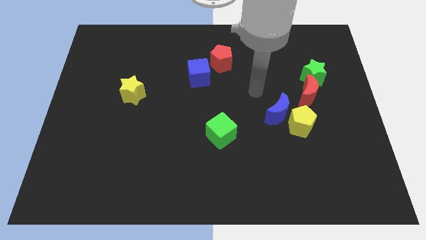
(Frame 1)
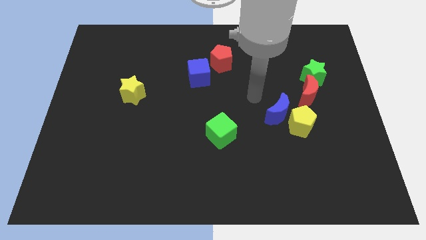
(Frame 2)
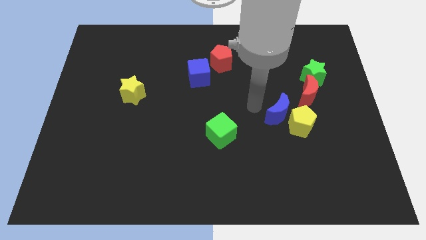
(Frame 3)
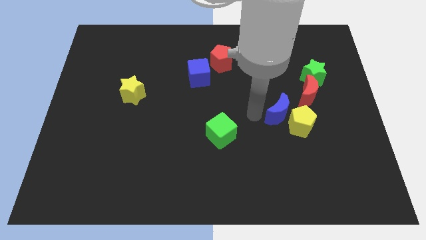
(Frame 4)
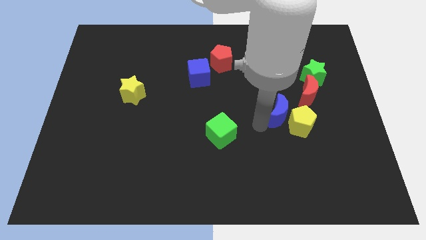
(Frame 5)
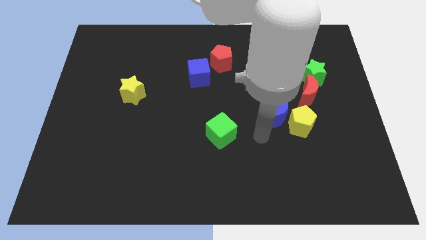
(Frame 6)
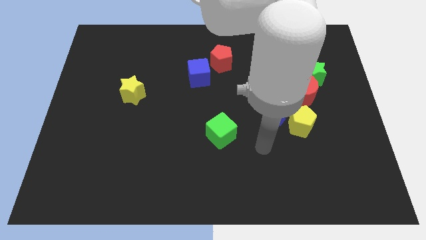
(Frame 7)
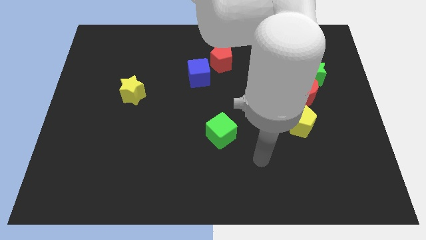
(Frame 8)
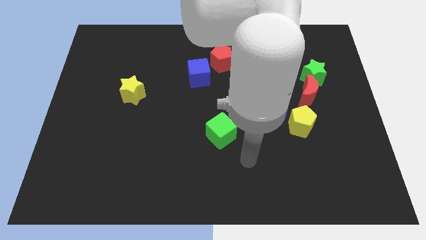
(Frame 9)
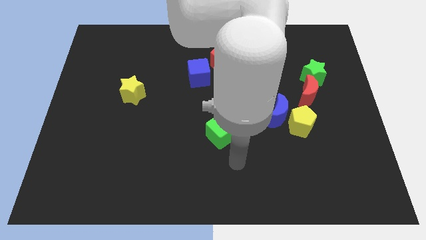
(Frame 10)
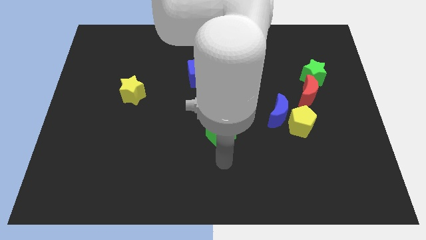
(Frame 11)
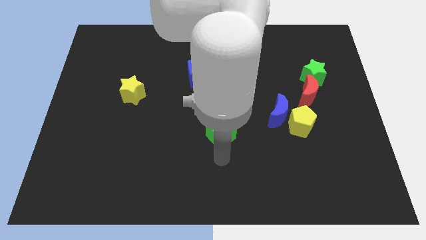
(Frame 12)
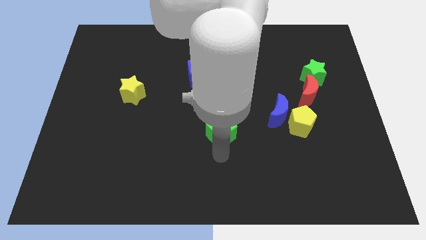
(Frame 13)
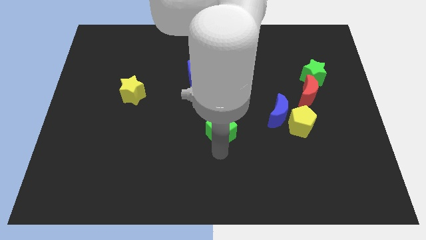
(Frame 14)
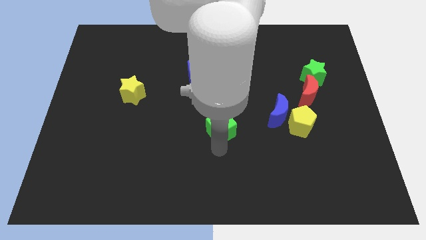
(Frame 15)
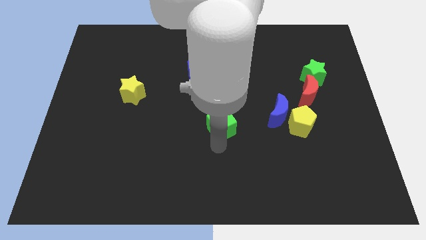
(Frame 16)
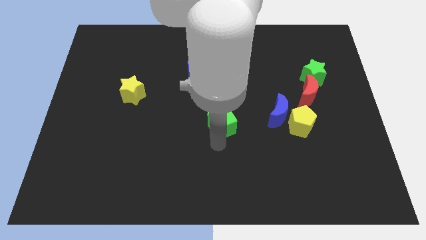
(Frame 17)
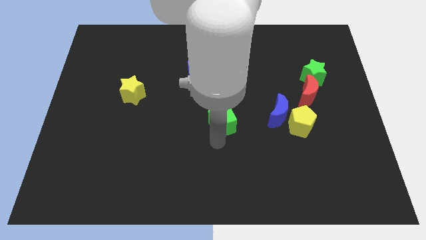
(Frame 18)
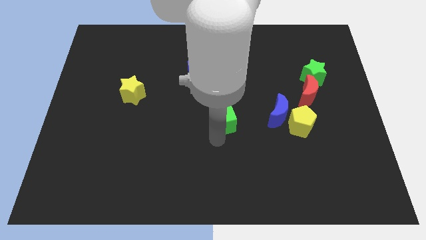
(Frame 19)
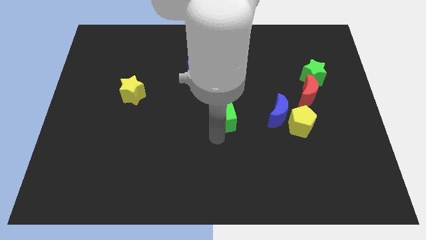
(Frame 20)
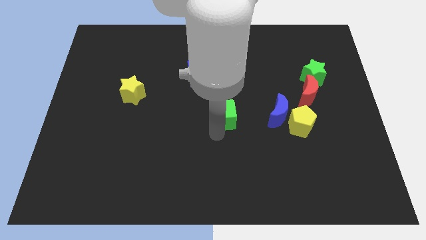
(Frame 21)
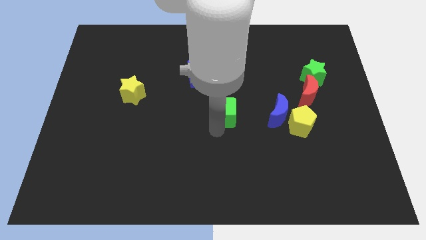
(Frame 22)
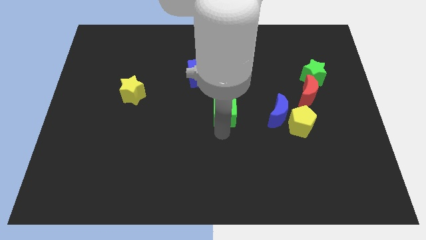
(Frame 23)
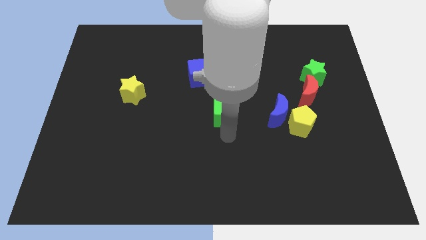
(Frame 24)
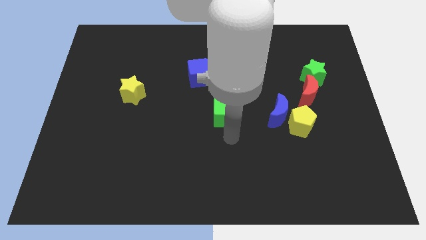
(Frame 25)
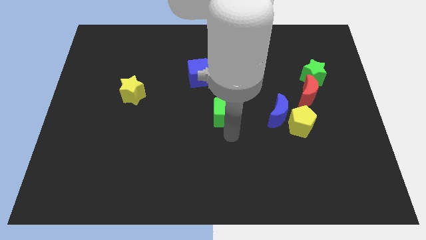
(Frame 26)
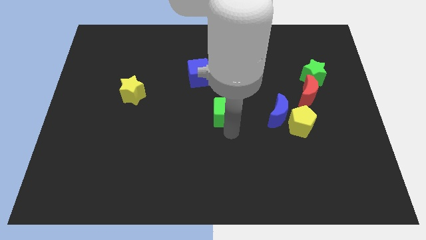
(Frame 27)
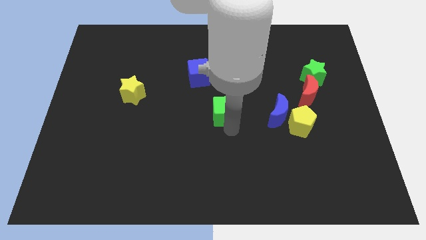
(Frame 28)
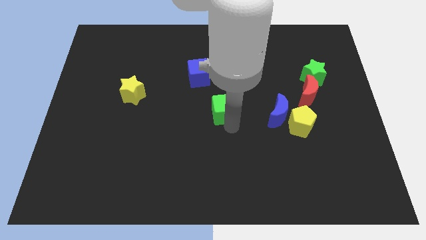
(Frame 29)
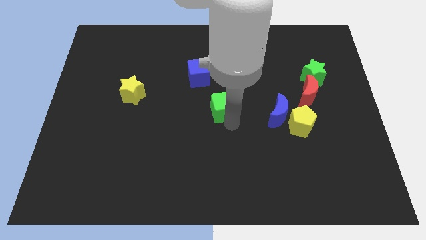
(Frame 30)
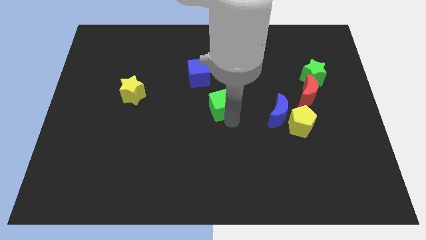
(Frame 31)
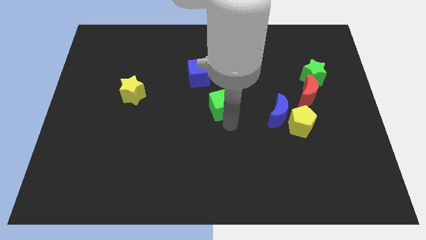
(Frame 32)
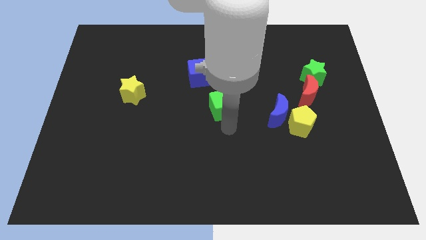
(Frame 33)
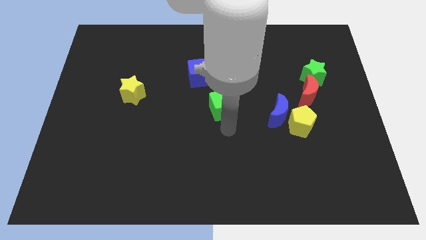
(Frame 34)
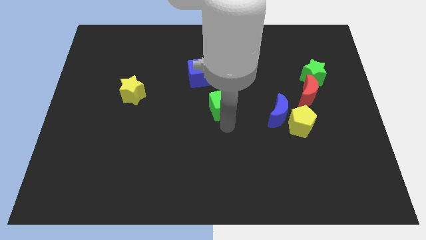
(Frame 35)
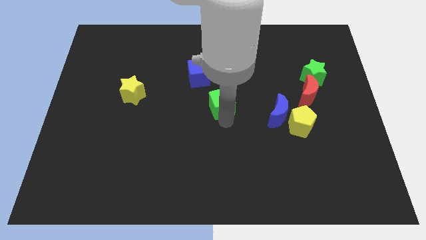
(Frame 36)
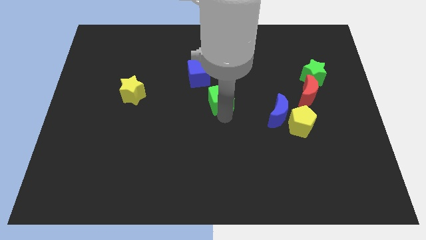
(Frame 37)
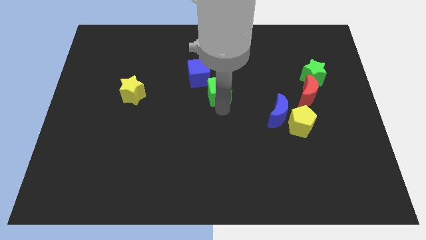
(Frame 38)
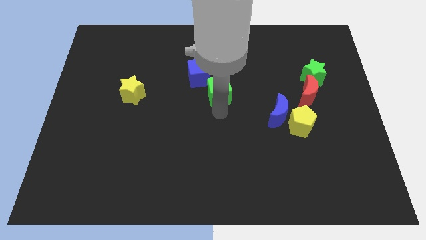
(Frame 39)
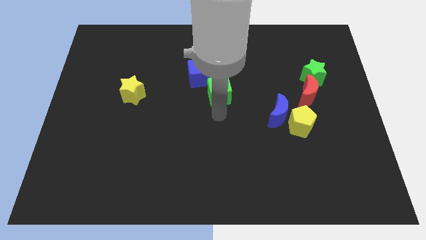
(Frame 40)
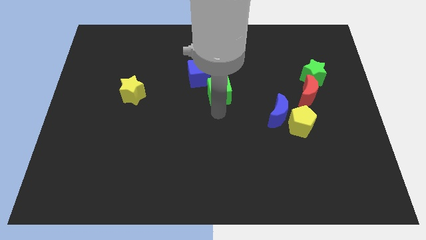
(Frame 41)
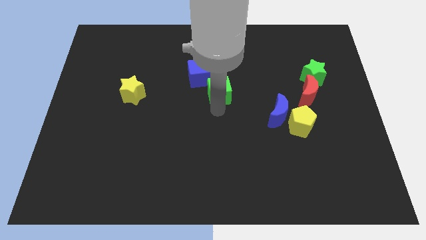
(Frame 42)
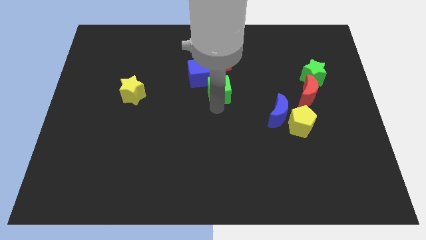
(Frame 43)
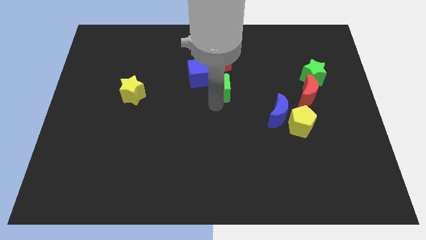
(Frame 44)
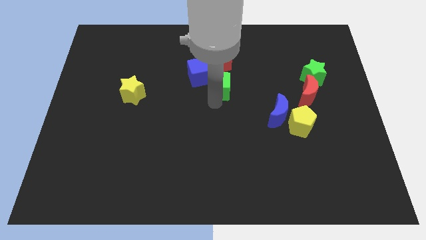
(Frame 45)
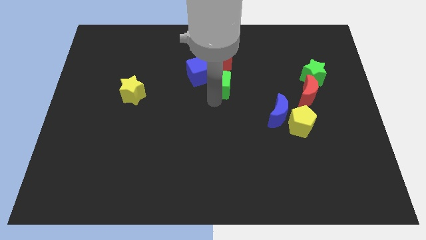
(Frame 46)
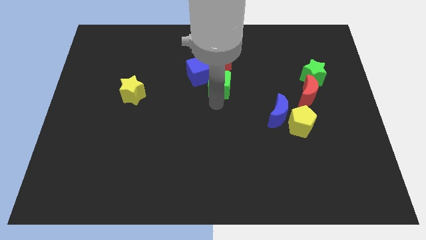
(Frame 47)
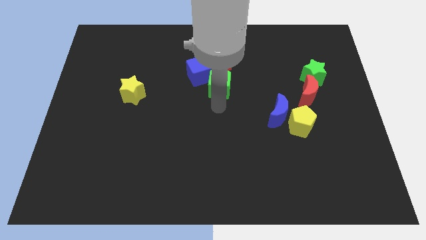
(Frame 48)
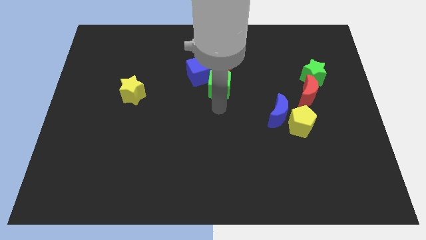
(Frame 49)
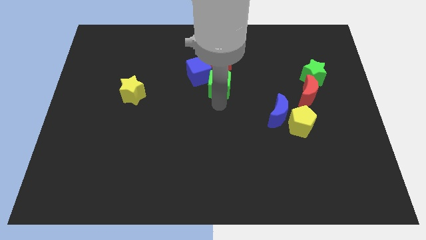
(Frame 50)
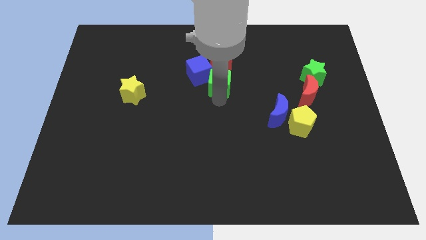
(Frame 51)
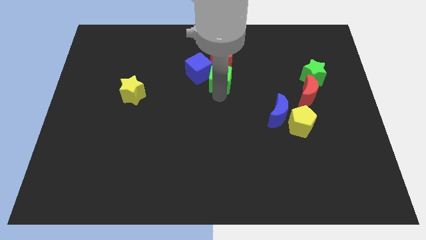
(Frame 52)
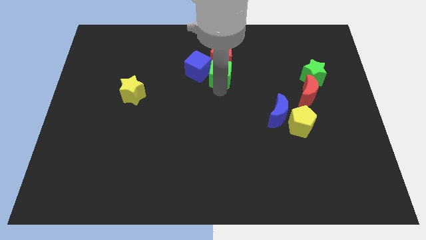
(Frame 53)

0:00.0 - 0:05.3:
slide the green cube next to the red pentagon

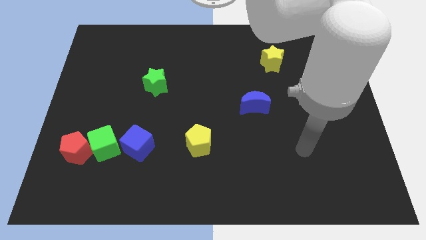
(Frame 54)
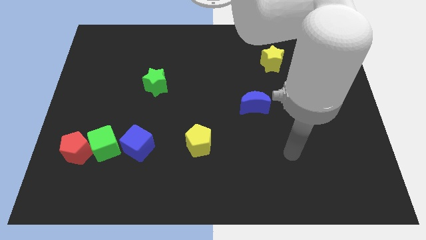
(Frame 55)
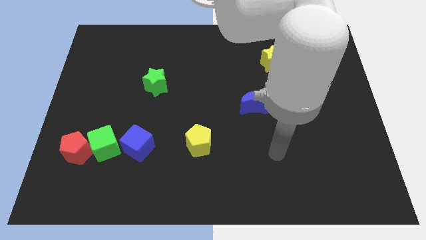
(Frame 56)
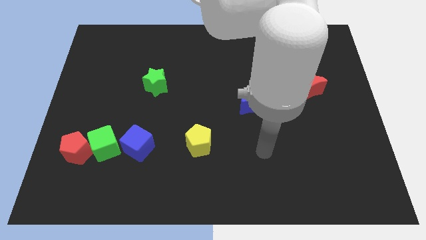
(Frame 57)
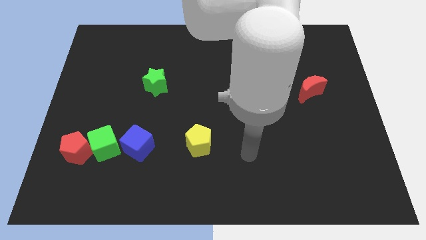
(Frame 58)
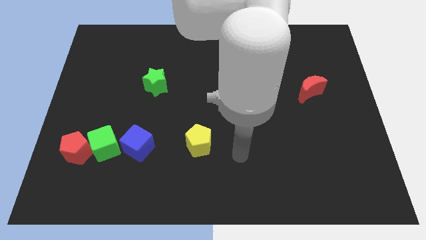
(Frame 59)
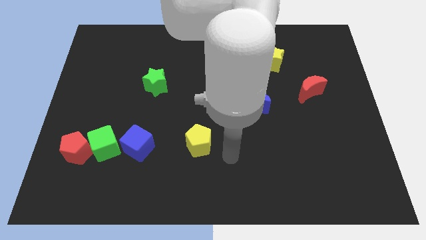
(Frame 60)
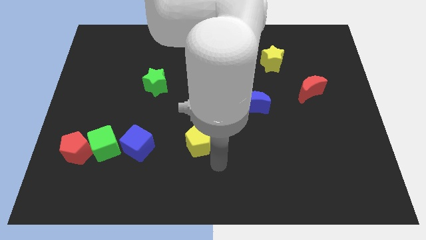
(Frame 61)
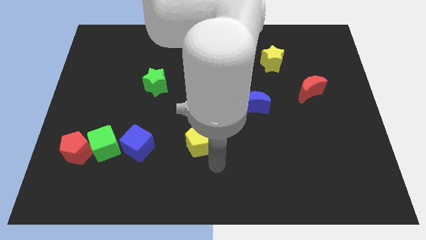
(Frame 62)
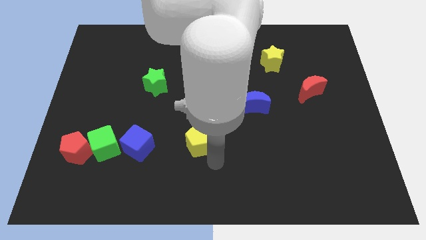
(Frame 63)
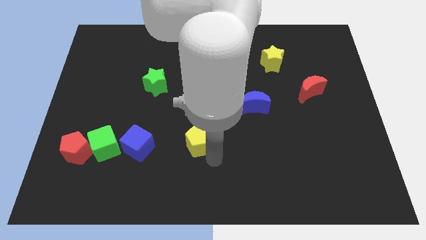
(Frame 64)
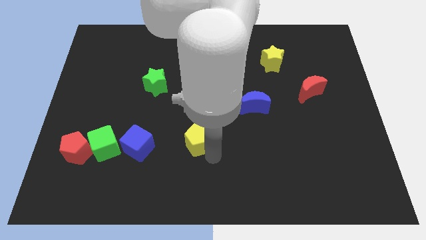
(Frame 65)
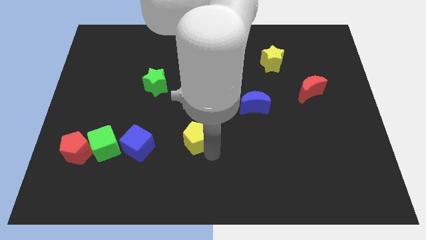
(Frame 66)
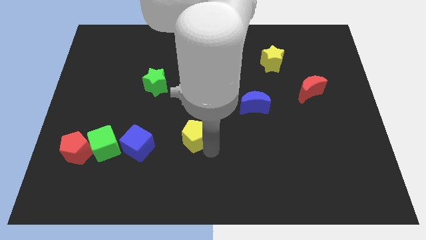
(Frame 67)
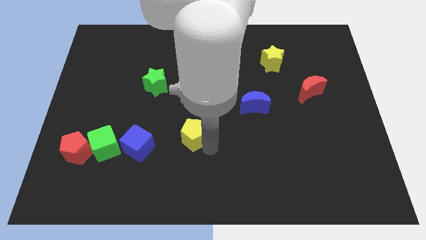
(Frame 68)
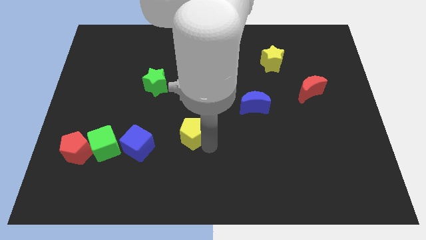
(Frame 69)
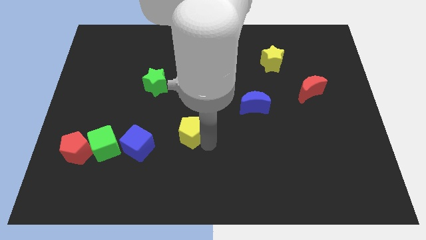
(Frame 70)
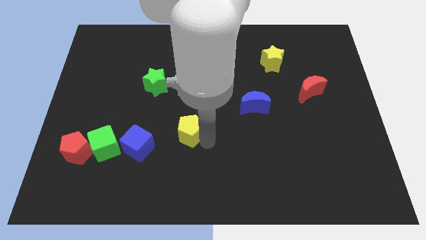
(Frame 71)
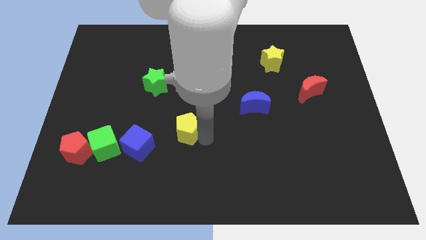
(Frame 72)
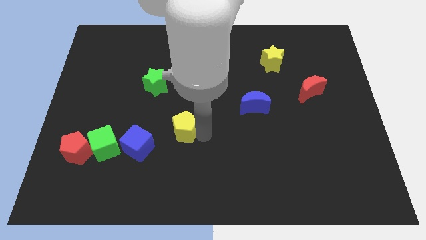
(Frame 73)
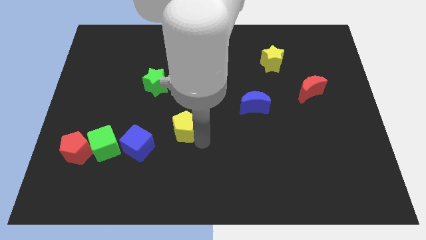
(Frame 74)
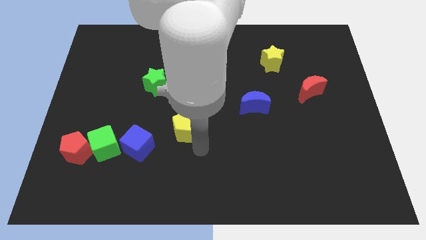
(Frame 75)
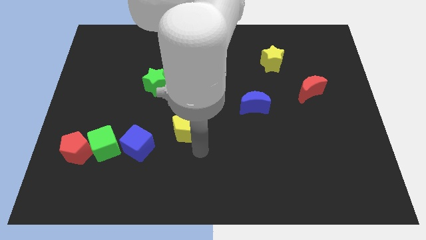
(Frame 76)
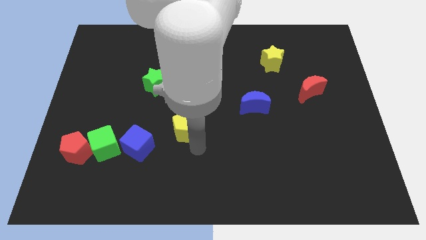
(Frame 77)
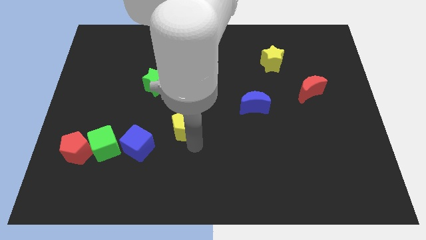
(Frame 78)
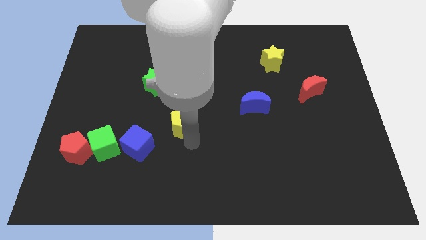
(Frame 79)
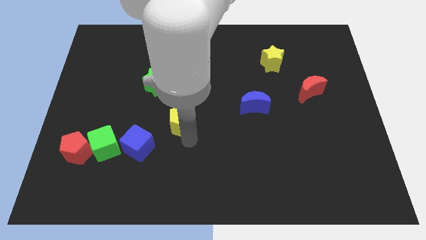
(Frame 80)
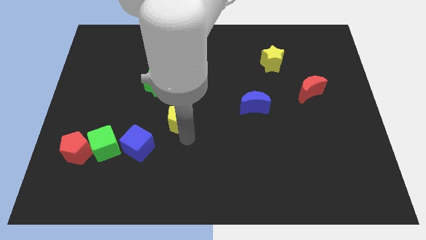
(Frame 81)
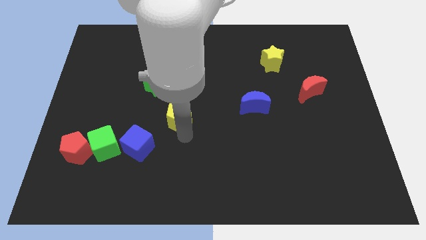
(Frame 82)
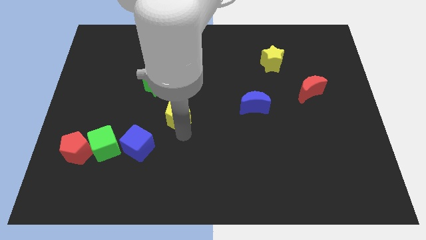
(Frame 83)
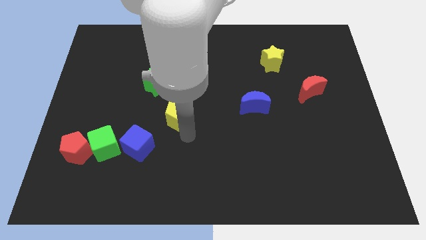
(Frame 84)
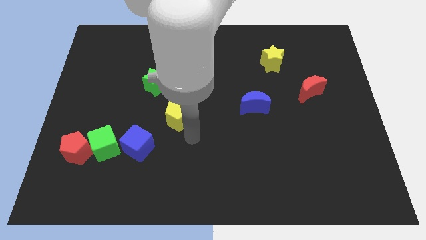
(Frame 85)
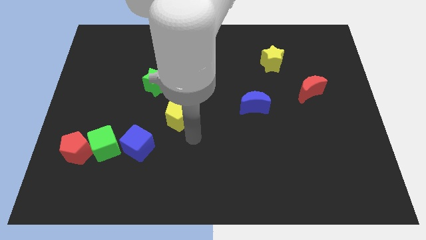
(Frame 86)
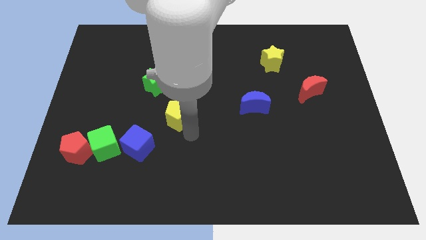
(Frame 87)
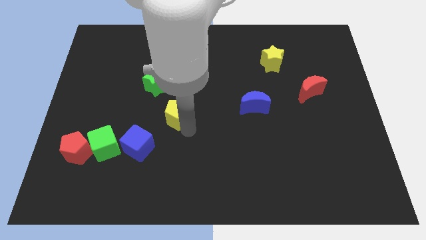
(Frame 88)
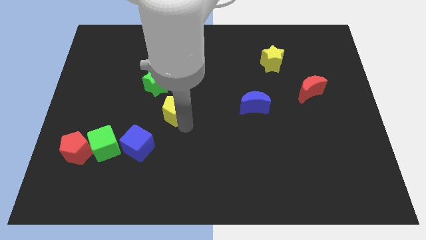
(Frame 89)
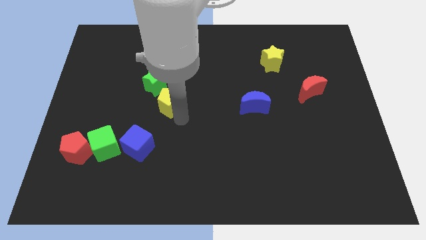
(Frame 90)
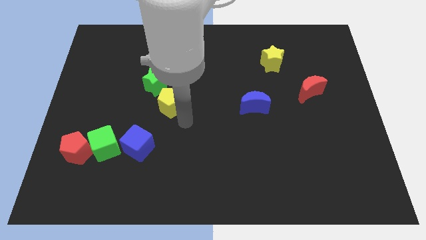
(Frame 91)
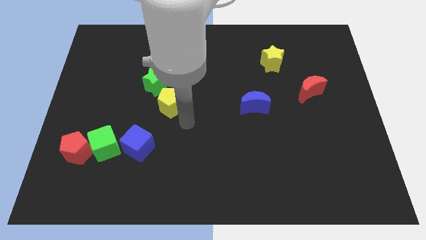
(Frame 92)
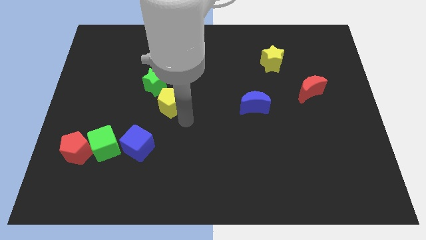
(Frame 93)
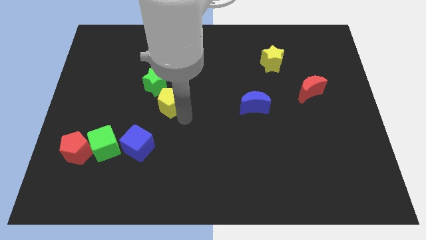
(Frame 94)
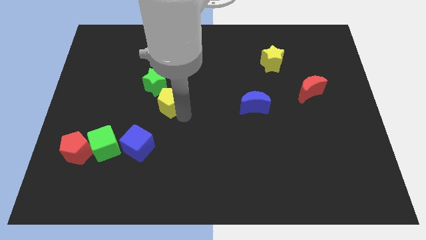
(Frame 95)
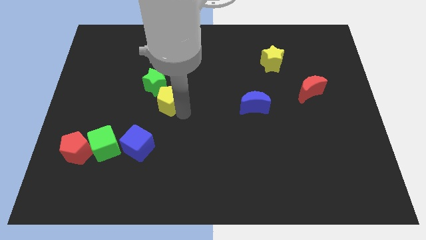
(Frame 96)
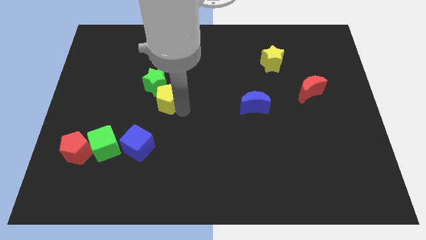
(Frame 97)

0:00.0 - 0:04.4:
move the yellow pentagon towards the green star
